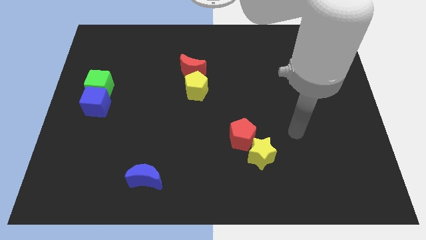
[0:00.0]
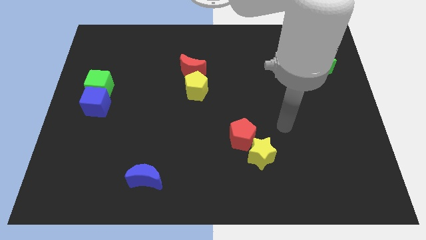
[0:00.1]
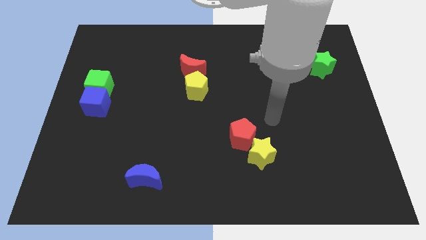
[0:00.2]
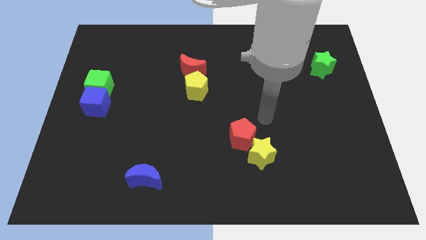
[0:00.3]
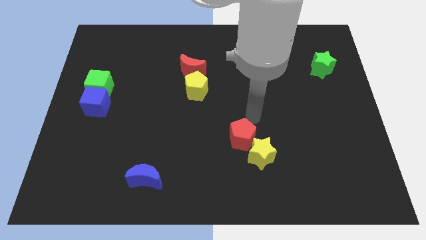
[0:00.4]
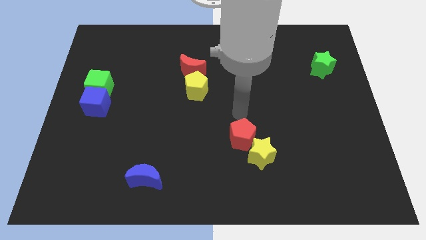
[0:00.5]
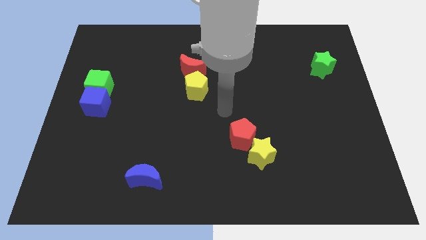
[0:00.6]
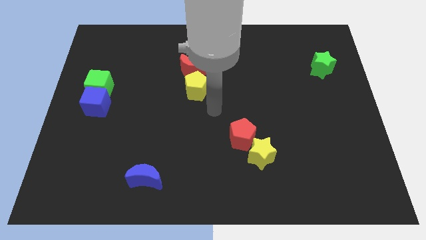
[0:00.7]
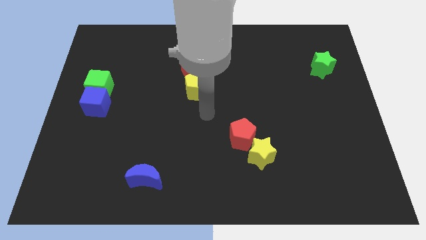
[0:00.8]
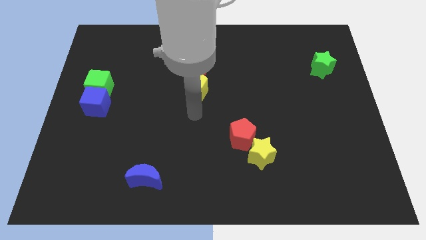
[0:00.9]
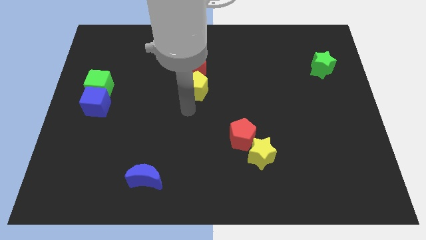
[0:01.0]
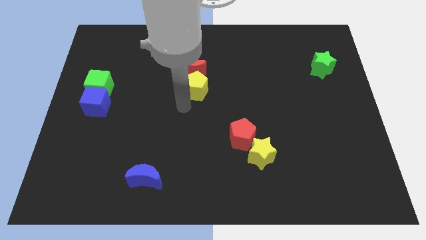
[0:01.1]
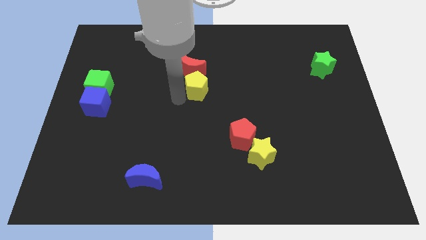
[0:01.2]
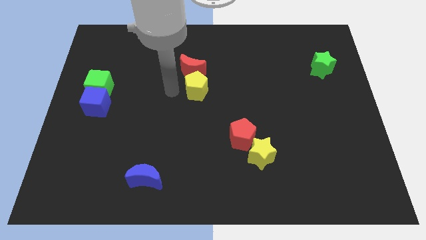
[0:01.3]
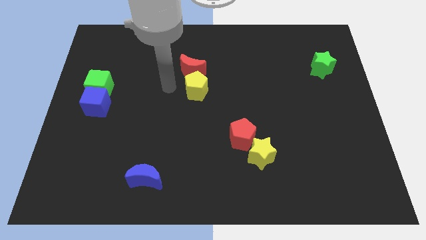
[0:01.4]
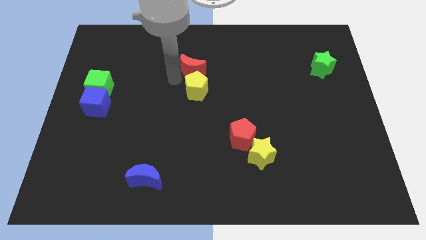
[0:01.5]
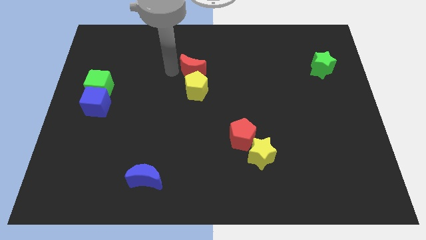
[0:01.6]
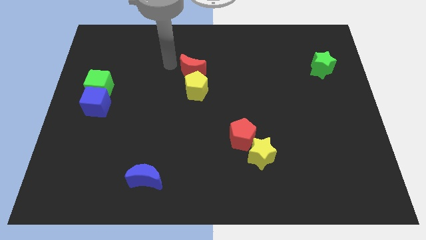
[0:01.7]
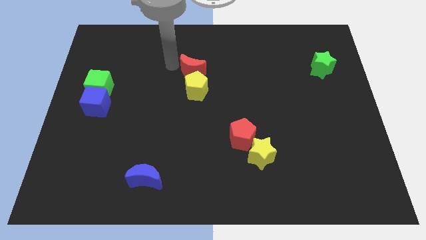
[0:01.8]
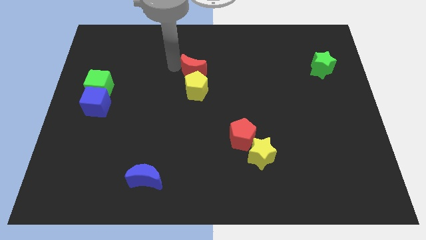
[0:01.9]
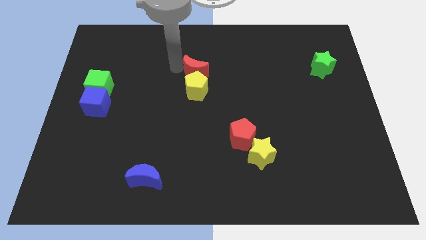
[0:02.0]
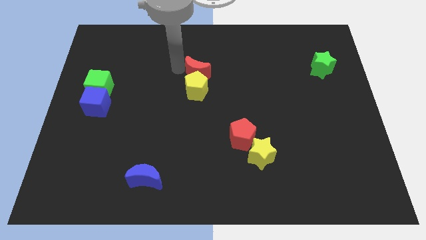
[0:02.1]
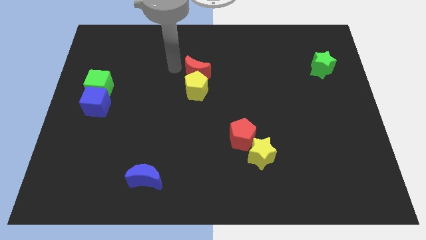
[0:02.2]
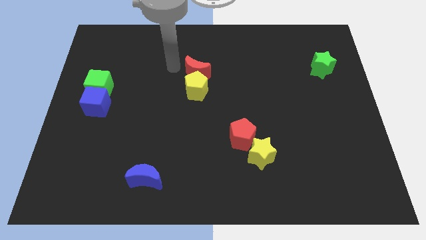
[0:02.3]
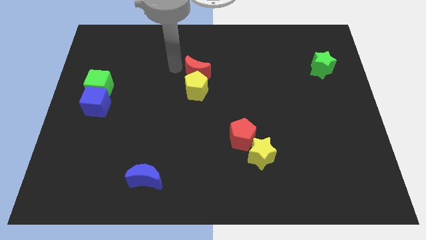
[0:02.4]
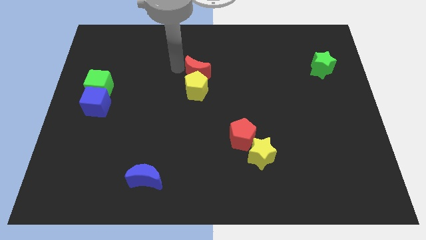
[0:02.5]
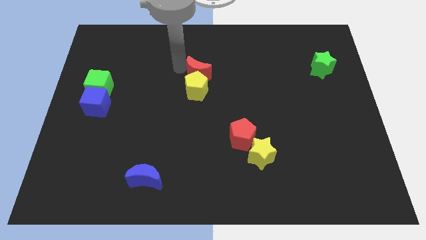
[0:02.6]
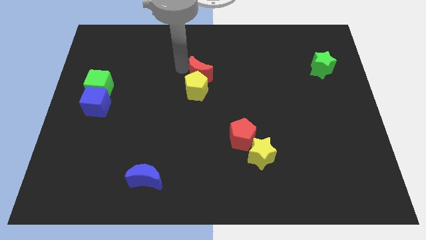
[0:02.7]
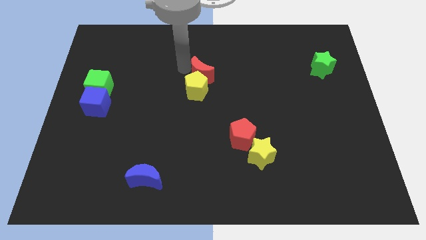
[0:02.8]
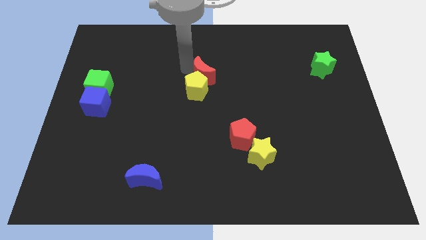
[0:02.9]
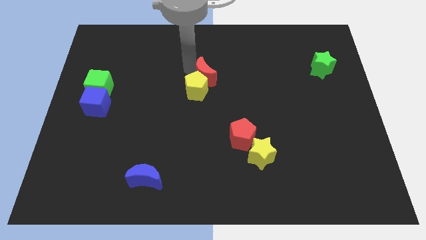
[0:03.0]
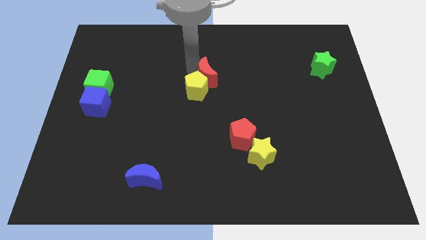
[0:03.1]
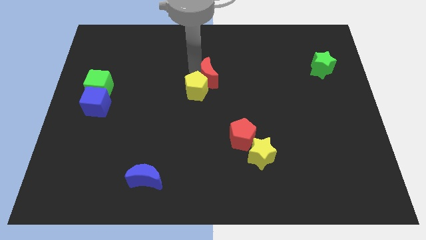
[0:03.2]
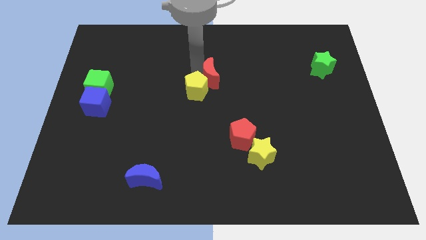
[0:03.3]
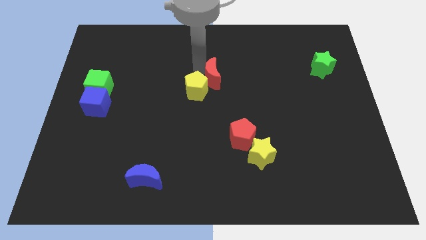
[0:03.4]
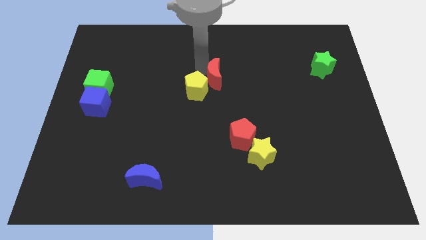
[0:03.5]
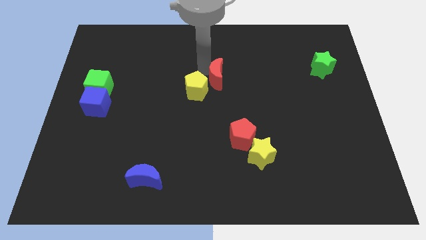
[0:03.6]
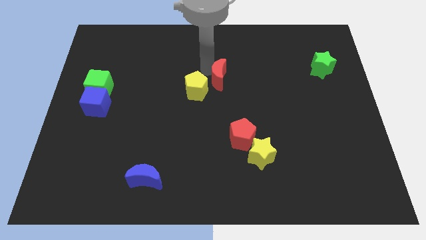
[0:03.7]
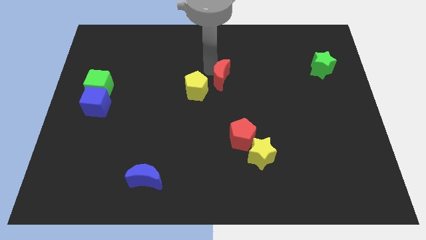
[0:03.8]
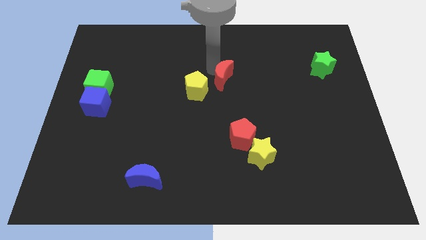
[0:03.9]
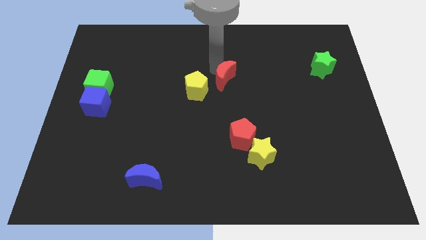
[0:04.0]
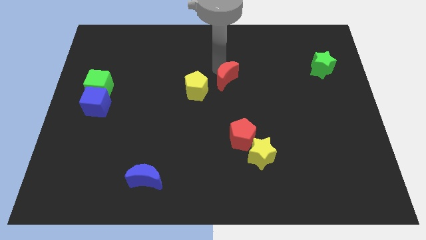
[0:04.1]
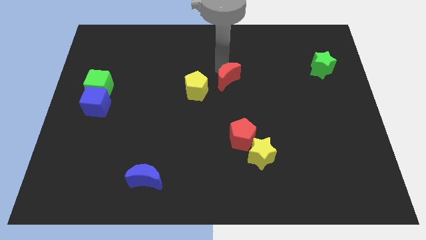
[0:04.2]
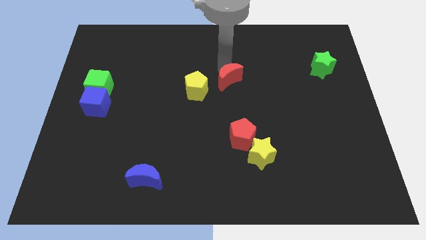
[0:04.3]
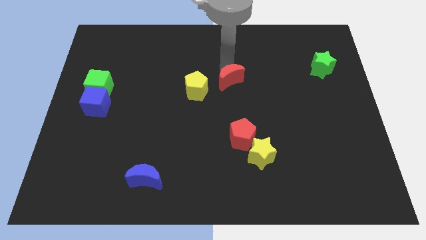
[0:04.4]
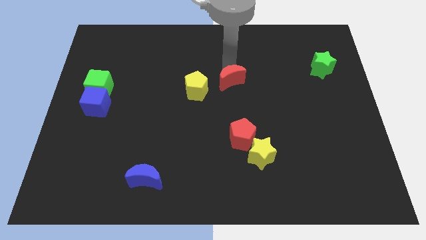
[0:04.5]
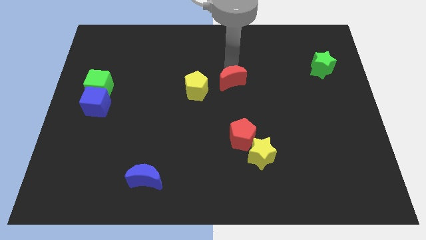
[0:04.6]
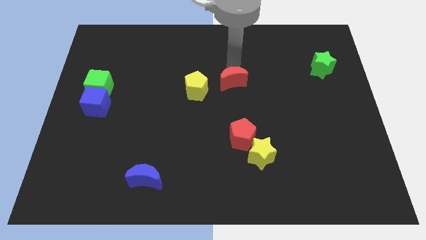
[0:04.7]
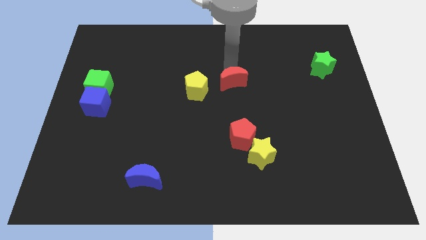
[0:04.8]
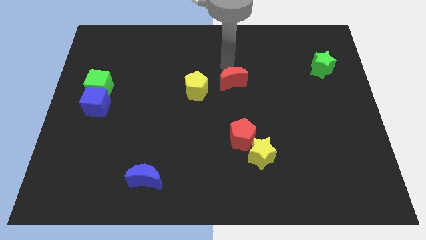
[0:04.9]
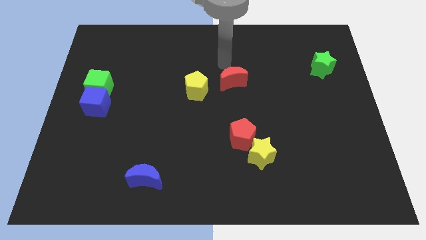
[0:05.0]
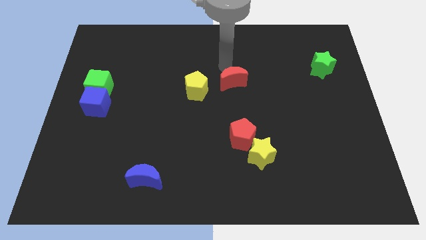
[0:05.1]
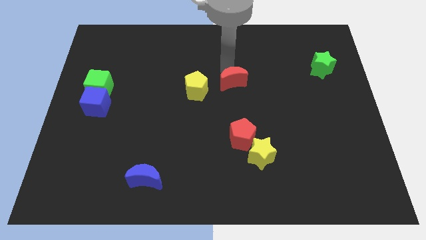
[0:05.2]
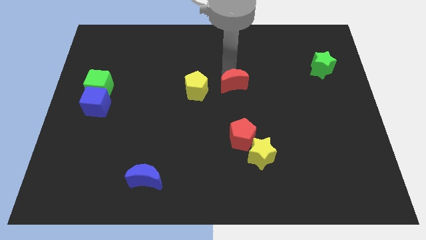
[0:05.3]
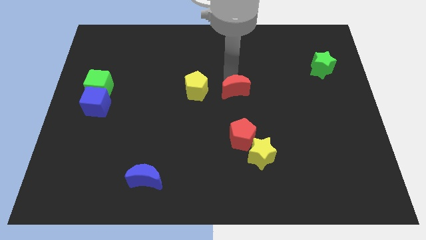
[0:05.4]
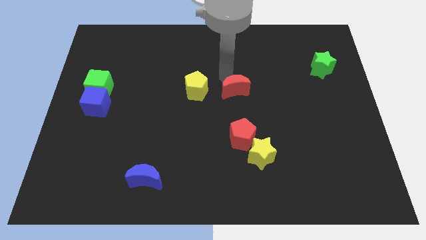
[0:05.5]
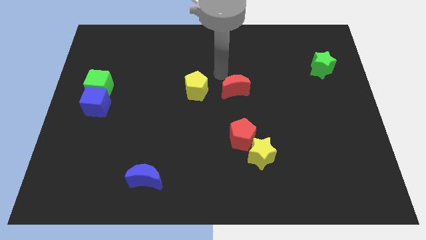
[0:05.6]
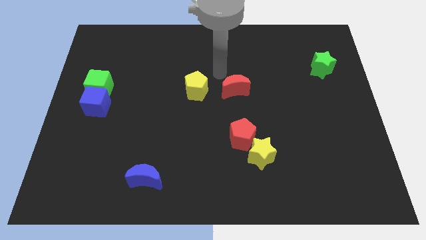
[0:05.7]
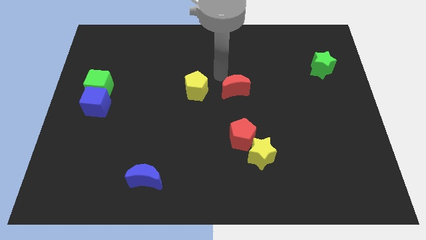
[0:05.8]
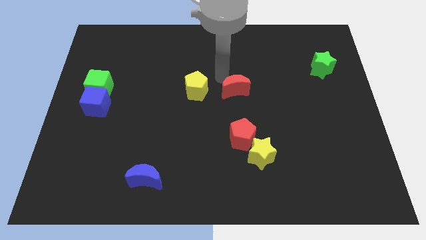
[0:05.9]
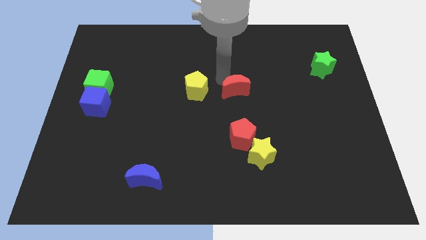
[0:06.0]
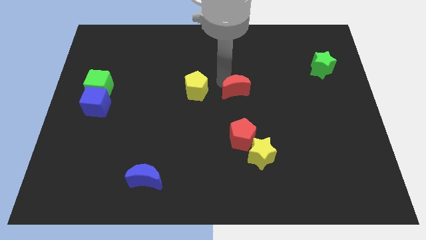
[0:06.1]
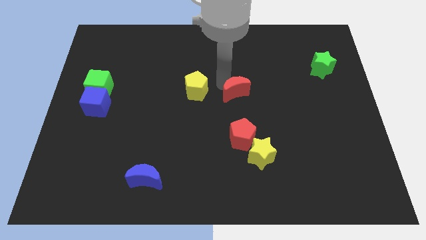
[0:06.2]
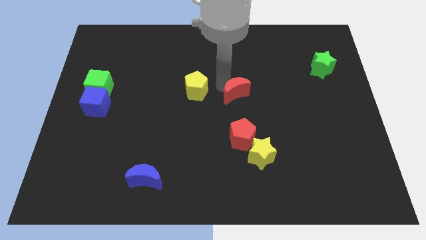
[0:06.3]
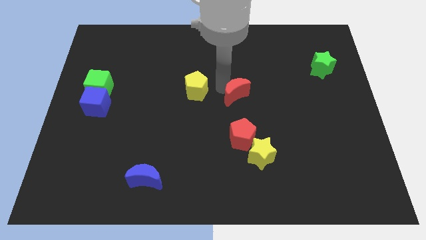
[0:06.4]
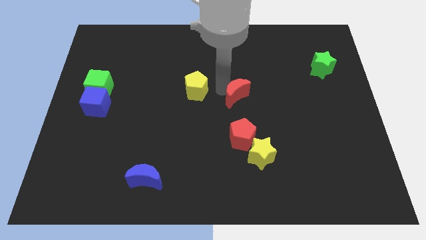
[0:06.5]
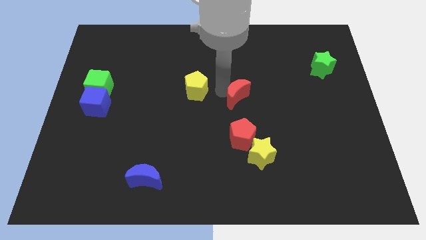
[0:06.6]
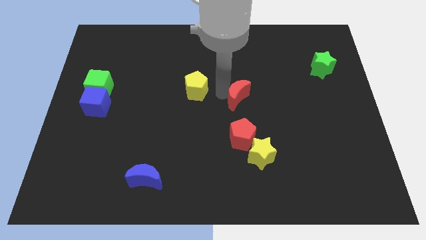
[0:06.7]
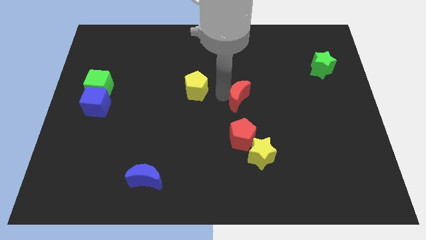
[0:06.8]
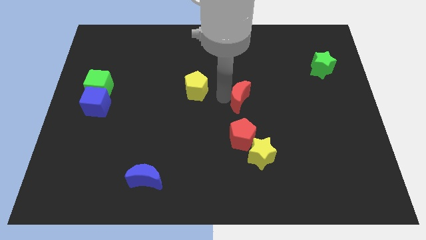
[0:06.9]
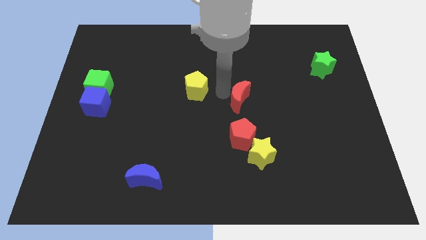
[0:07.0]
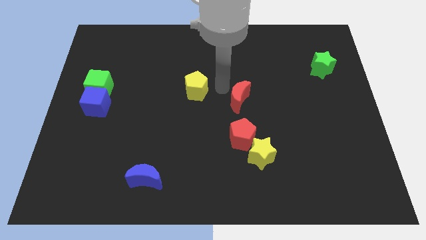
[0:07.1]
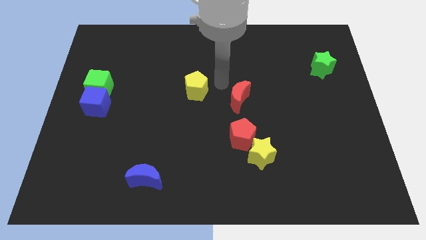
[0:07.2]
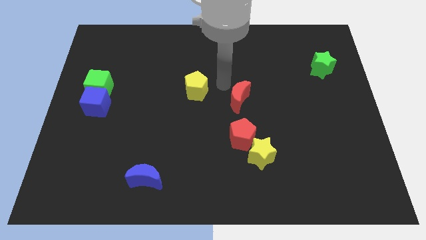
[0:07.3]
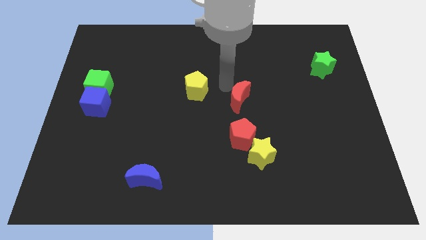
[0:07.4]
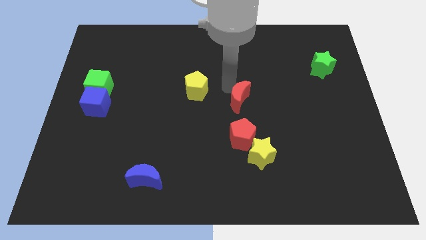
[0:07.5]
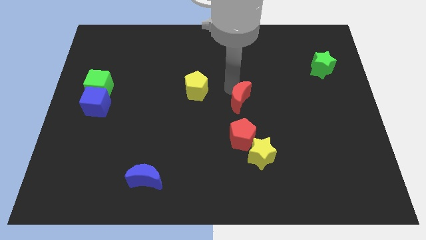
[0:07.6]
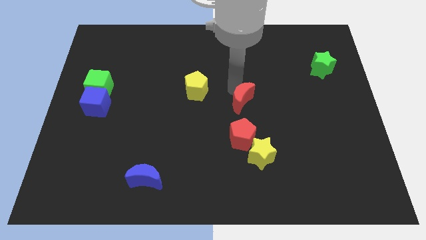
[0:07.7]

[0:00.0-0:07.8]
slide the red moon above the yellow star
